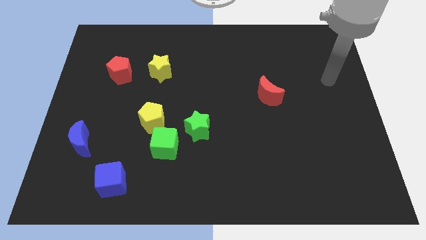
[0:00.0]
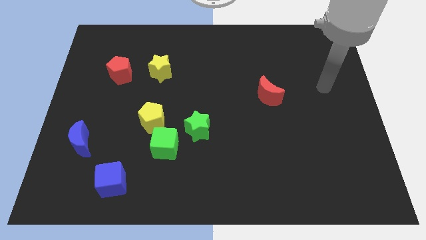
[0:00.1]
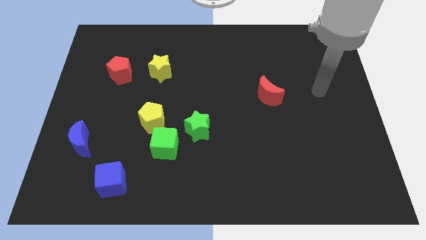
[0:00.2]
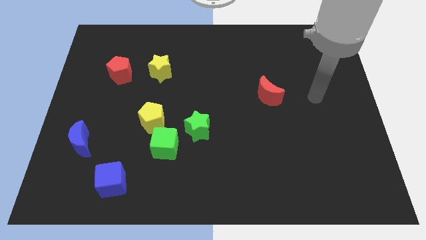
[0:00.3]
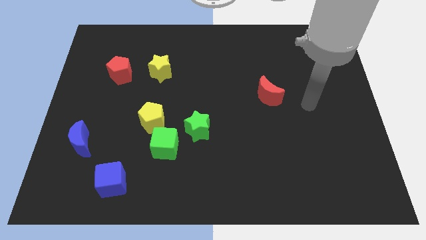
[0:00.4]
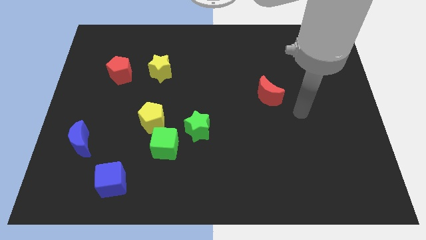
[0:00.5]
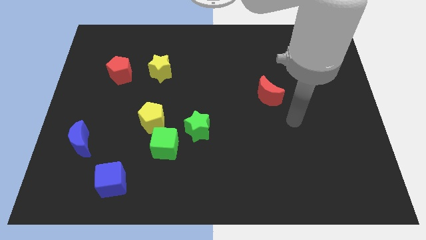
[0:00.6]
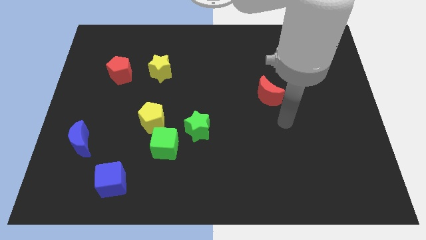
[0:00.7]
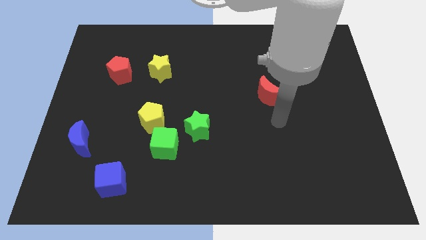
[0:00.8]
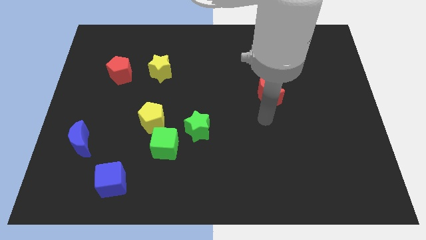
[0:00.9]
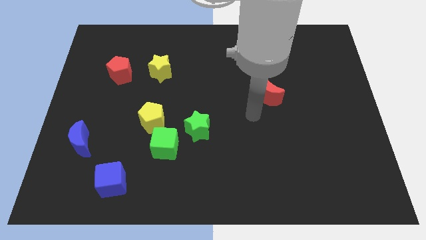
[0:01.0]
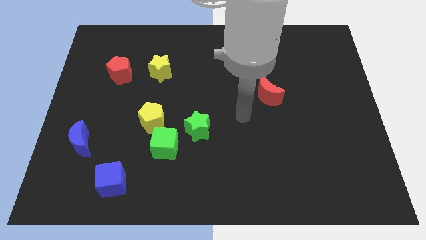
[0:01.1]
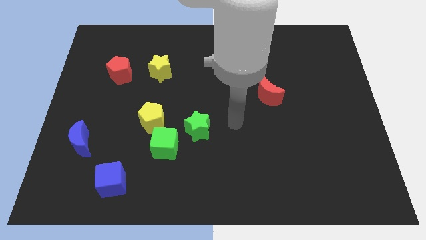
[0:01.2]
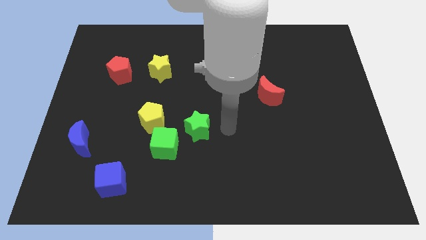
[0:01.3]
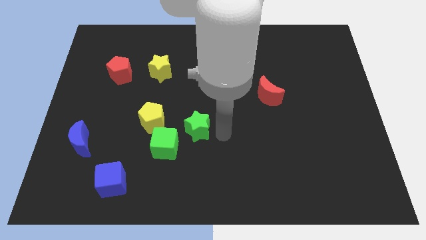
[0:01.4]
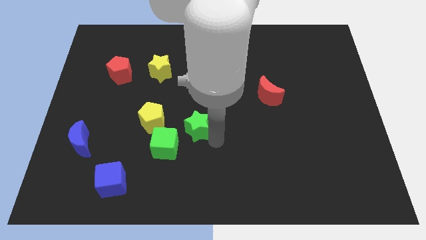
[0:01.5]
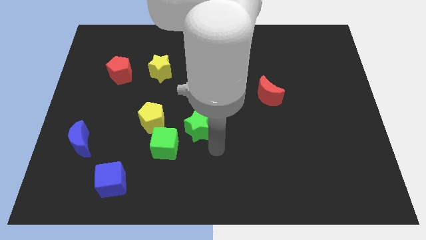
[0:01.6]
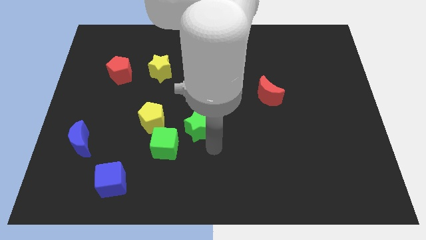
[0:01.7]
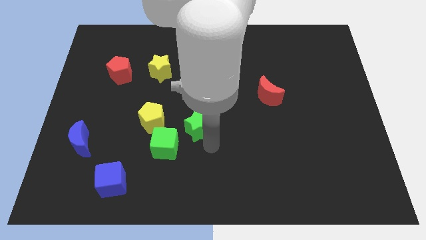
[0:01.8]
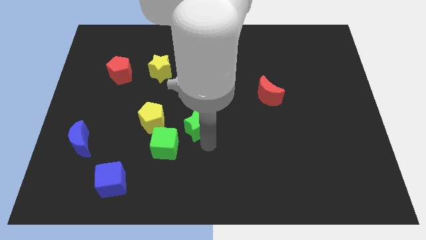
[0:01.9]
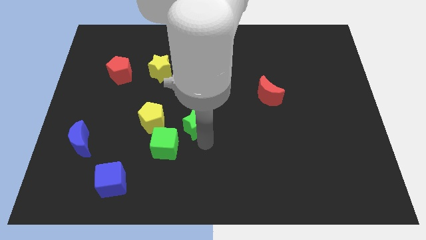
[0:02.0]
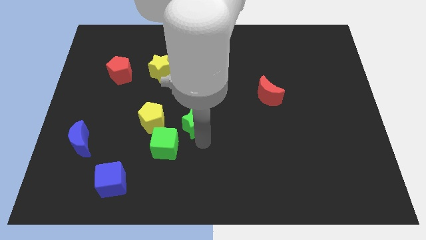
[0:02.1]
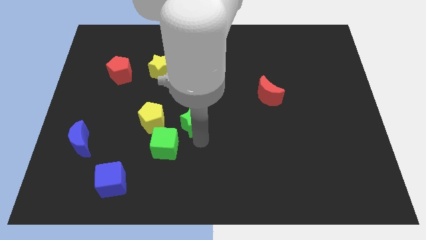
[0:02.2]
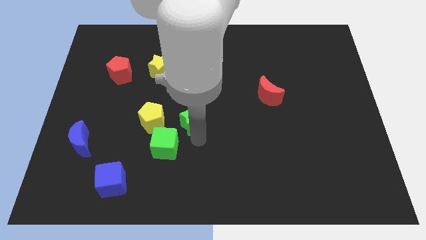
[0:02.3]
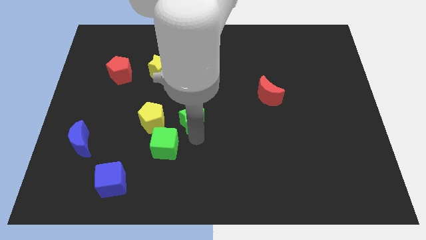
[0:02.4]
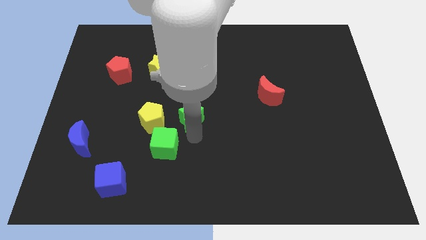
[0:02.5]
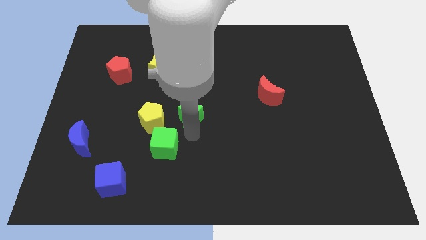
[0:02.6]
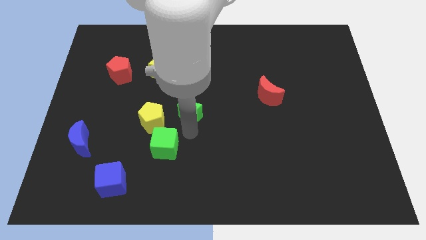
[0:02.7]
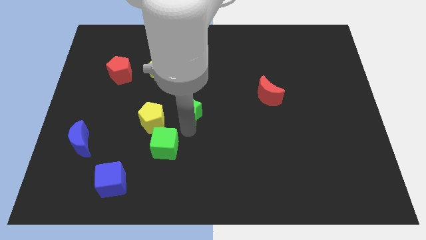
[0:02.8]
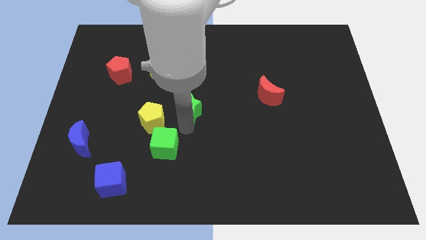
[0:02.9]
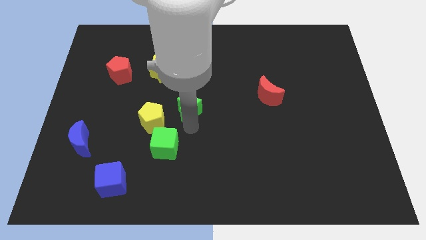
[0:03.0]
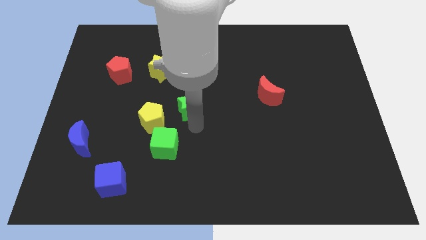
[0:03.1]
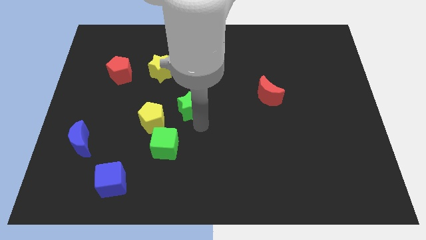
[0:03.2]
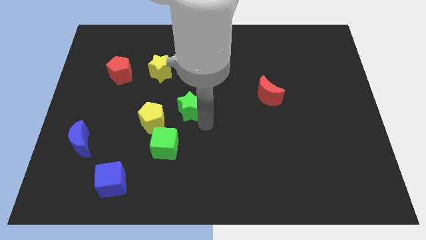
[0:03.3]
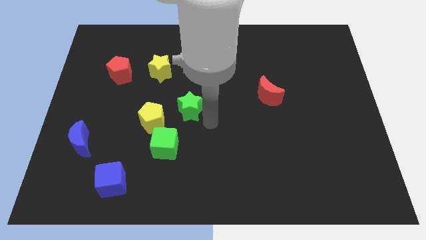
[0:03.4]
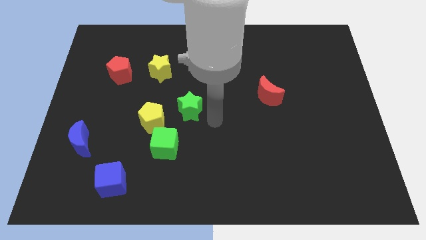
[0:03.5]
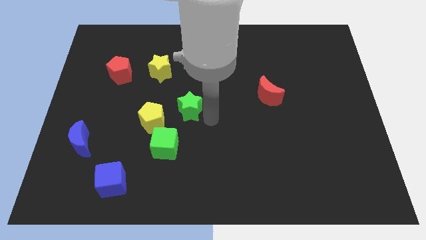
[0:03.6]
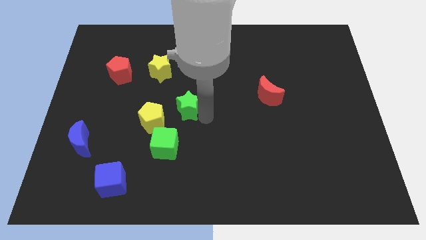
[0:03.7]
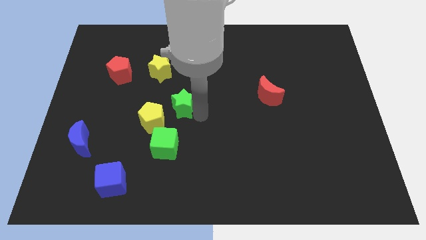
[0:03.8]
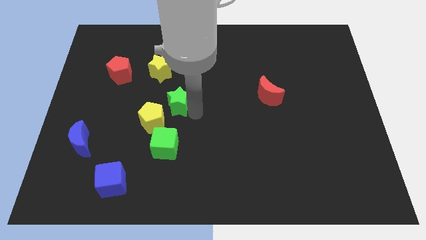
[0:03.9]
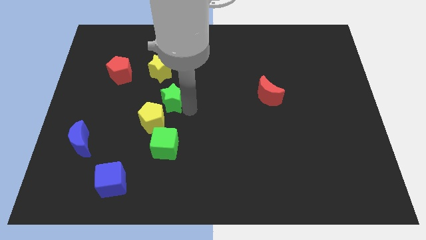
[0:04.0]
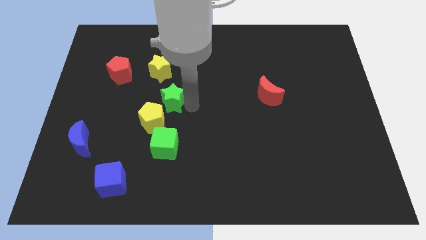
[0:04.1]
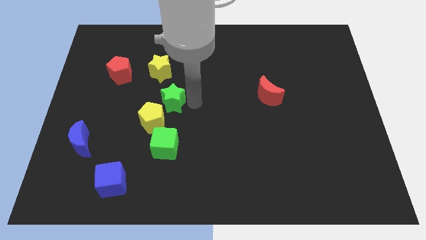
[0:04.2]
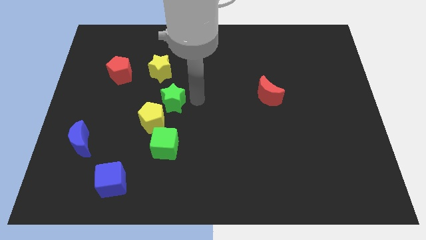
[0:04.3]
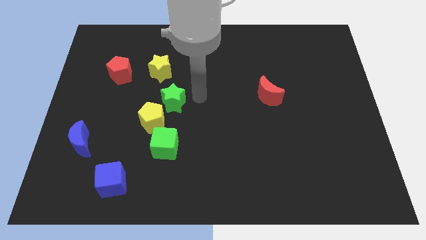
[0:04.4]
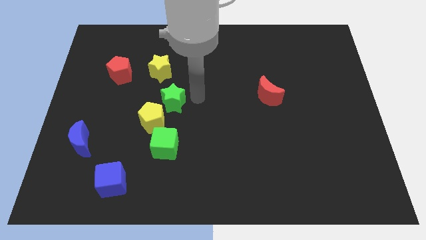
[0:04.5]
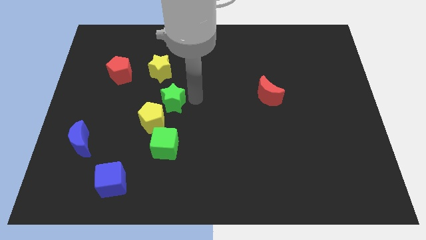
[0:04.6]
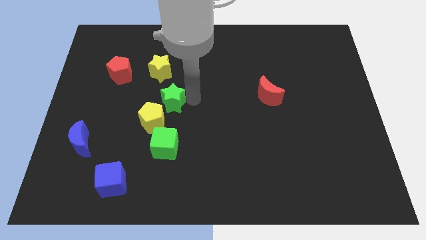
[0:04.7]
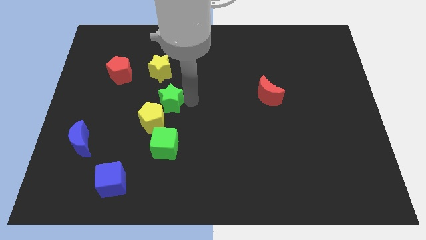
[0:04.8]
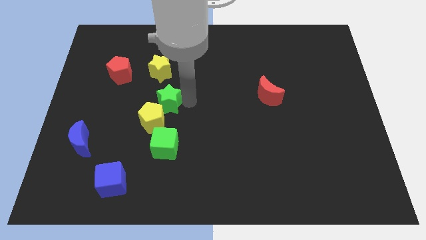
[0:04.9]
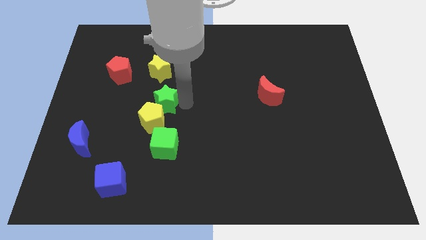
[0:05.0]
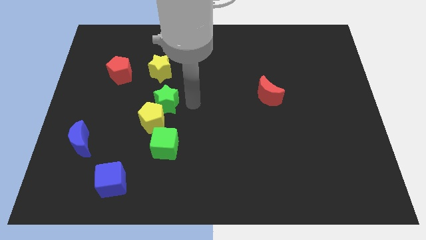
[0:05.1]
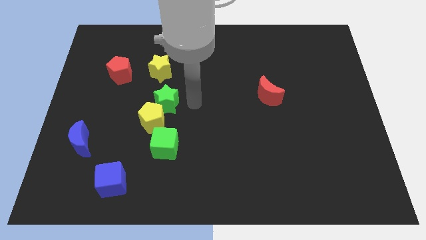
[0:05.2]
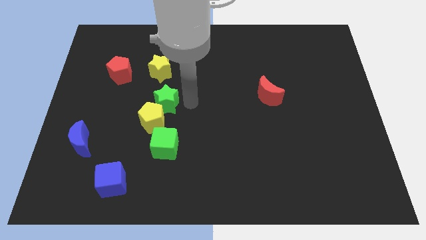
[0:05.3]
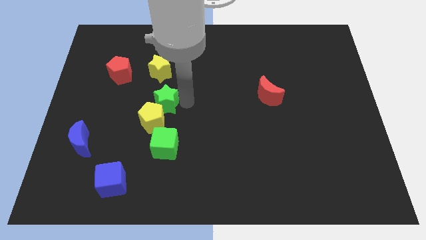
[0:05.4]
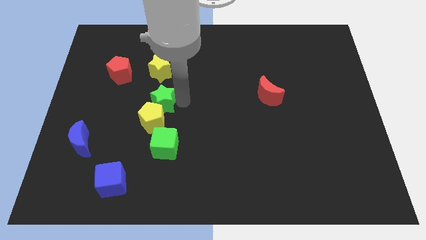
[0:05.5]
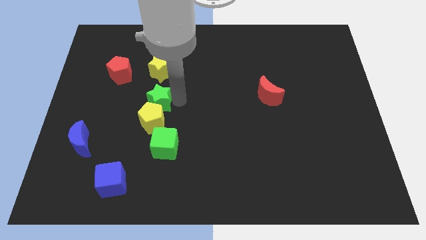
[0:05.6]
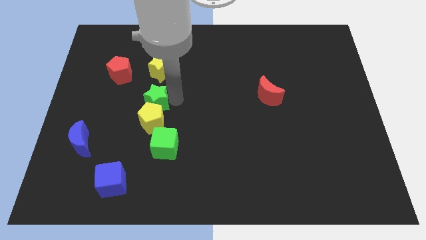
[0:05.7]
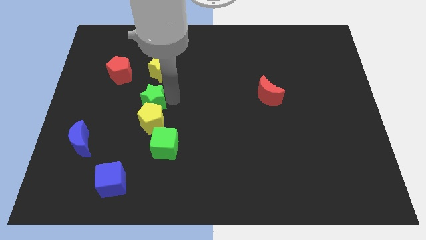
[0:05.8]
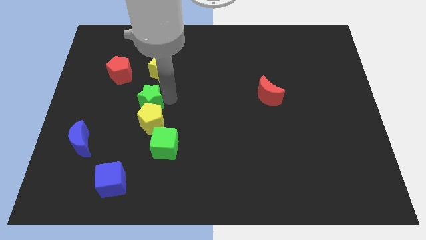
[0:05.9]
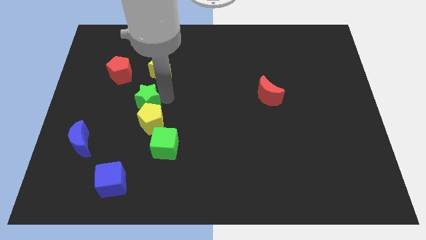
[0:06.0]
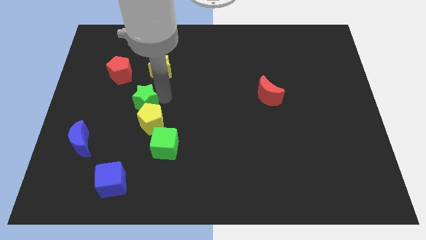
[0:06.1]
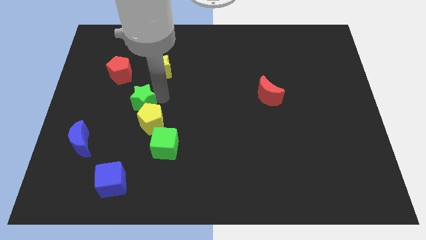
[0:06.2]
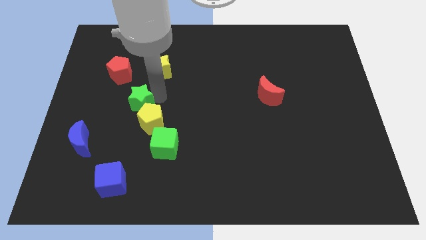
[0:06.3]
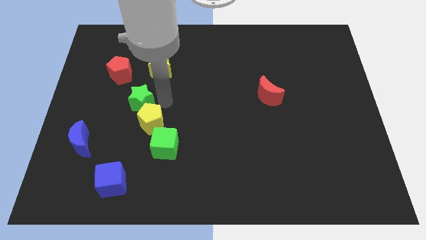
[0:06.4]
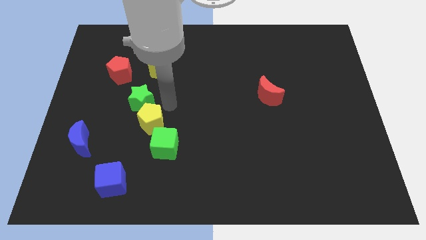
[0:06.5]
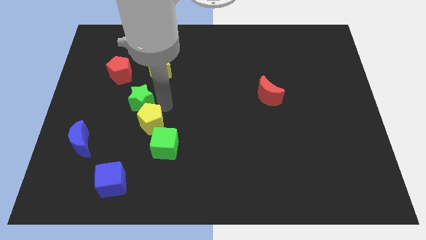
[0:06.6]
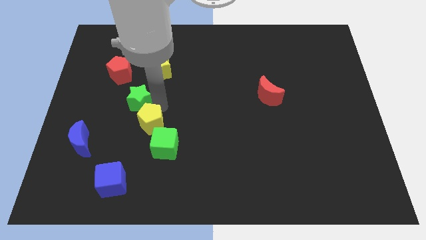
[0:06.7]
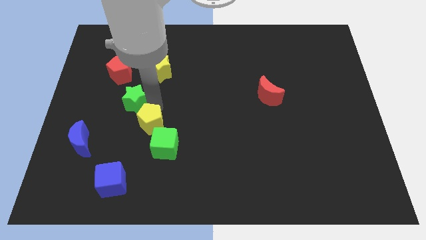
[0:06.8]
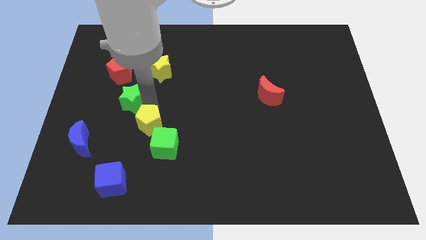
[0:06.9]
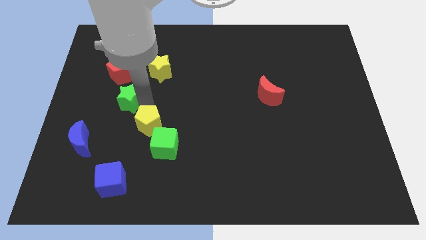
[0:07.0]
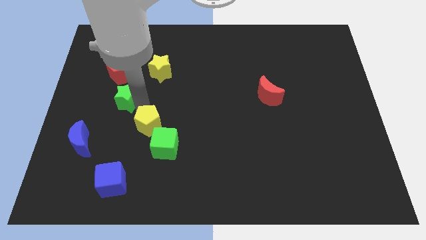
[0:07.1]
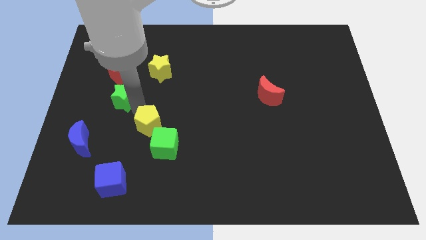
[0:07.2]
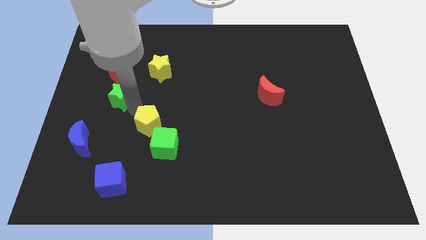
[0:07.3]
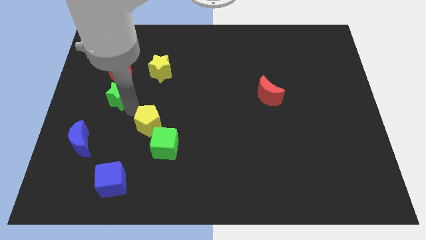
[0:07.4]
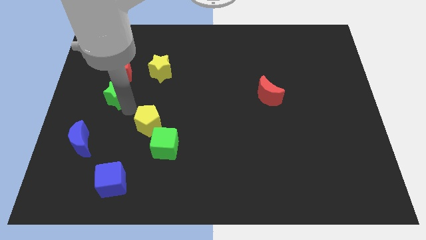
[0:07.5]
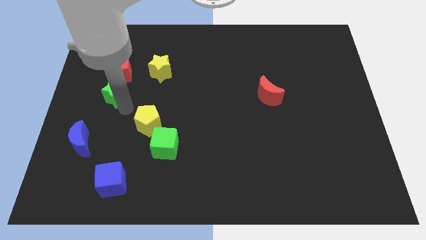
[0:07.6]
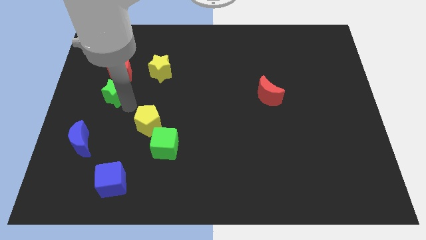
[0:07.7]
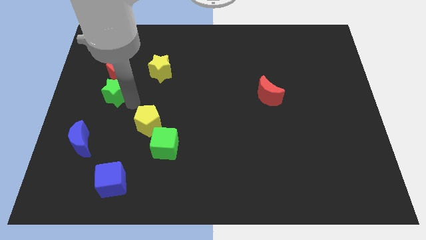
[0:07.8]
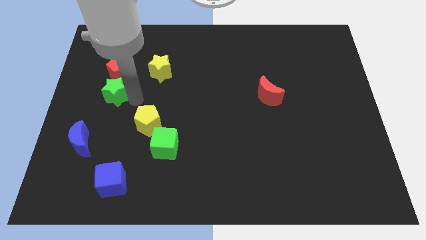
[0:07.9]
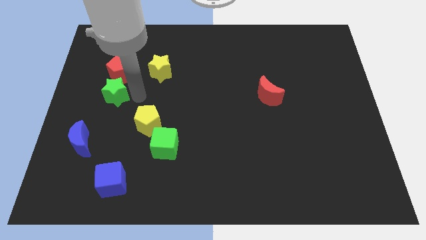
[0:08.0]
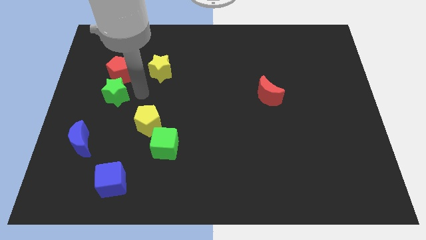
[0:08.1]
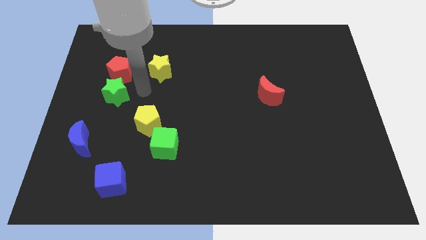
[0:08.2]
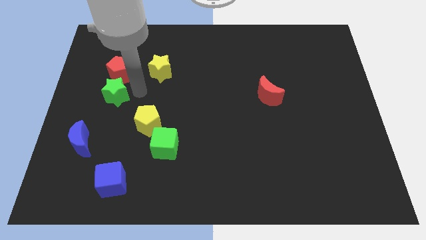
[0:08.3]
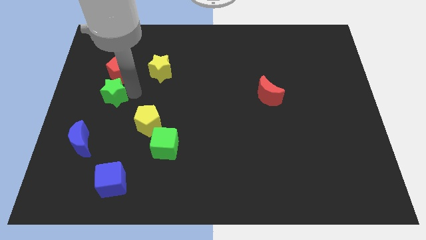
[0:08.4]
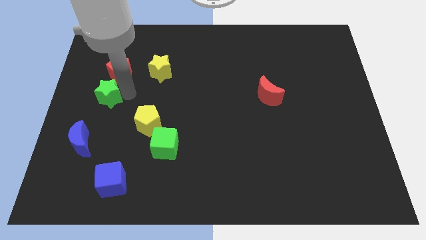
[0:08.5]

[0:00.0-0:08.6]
push the green star to the left side of the board
